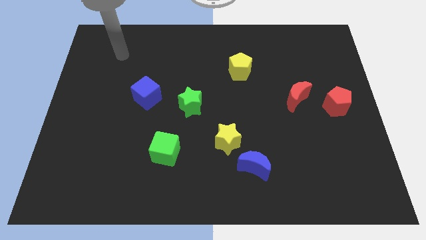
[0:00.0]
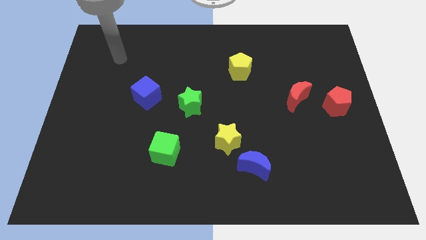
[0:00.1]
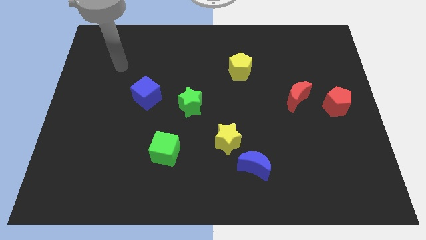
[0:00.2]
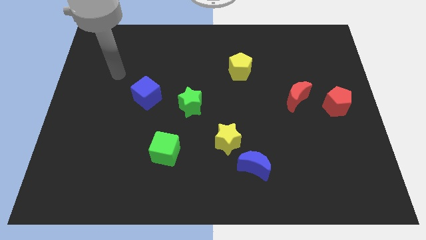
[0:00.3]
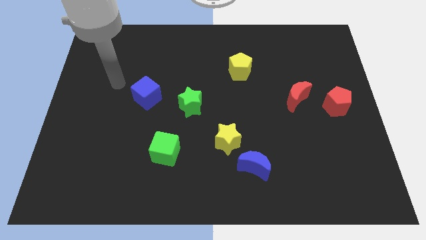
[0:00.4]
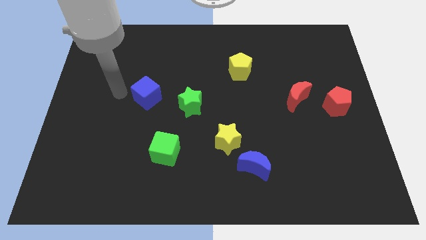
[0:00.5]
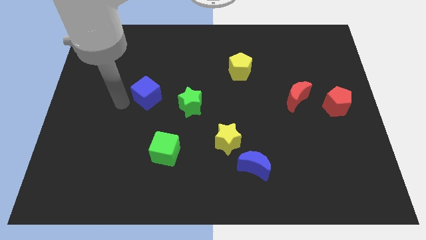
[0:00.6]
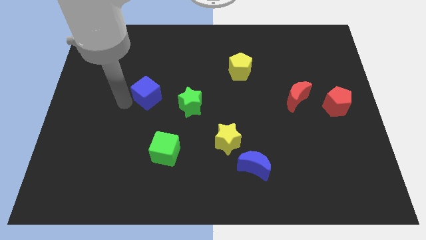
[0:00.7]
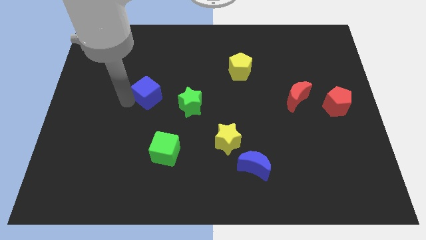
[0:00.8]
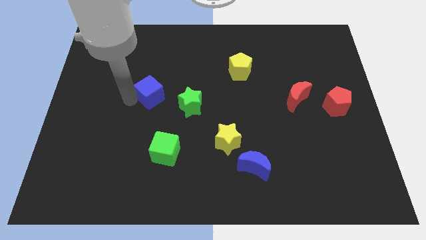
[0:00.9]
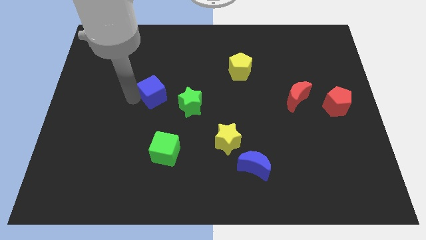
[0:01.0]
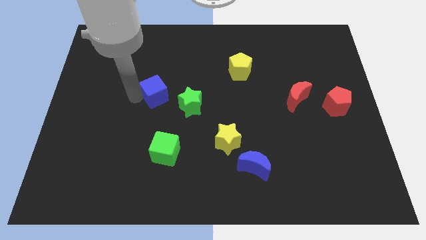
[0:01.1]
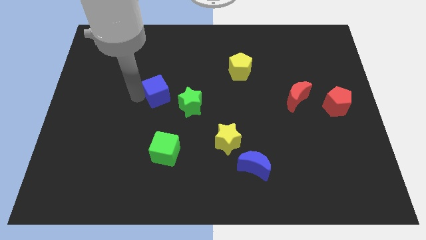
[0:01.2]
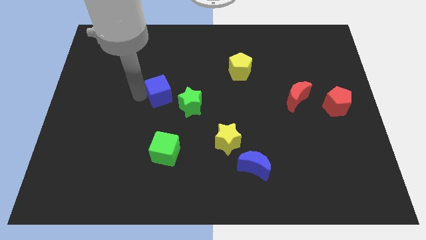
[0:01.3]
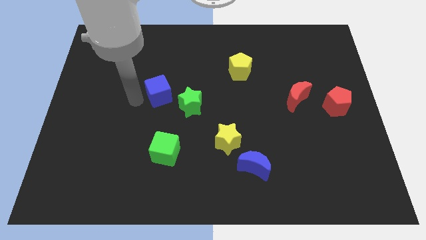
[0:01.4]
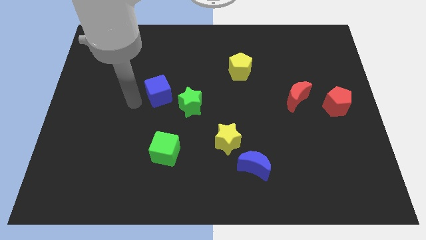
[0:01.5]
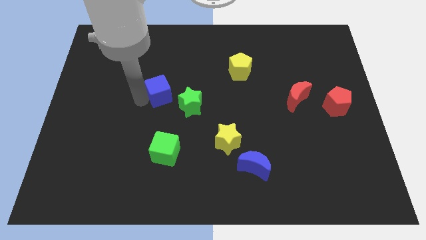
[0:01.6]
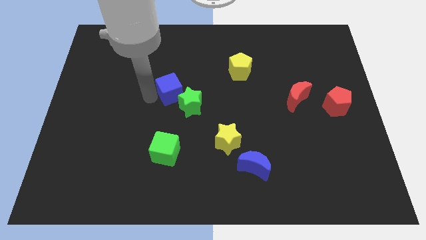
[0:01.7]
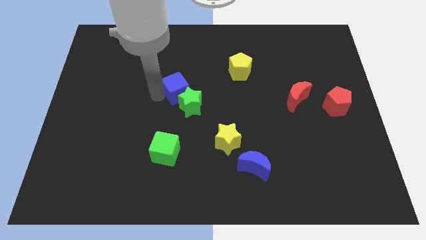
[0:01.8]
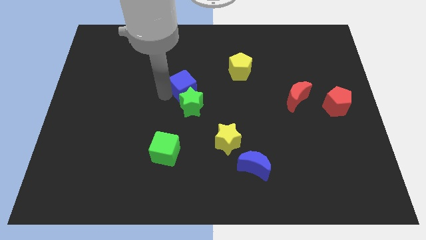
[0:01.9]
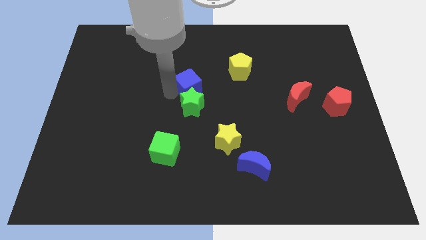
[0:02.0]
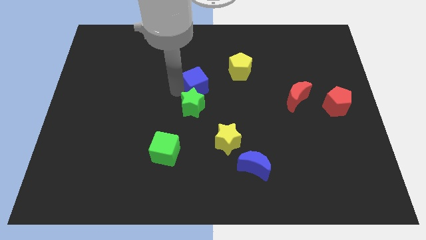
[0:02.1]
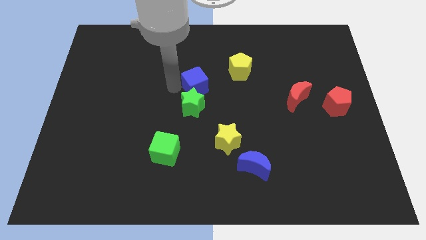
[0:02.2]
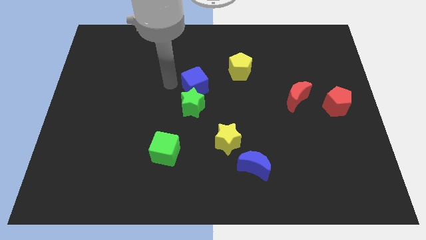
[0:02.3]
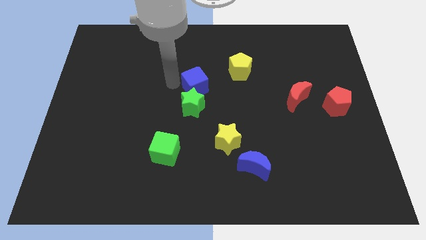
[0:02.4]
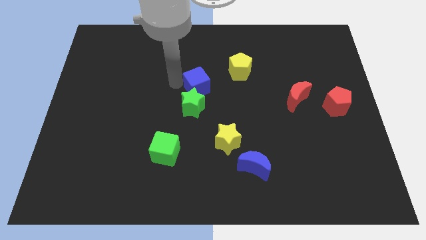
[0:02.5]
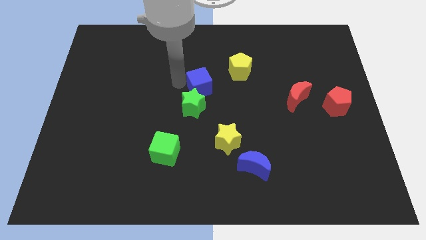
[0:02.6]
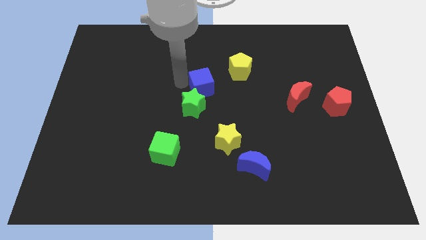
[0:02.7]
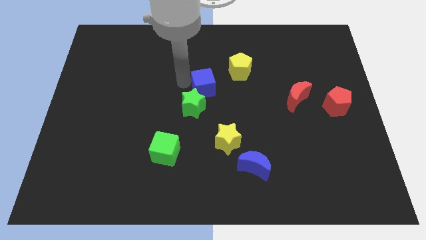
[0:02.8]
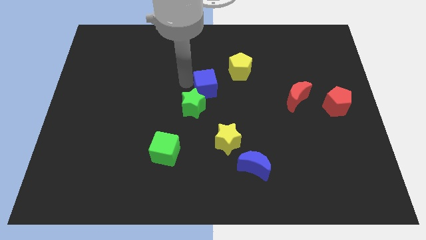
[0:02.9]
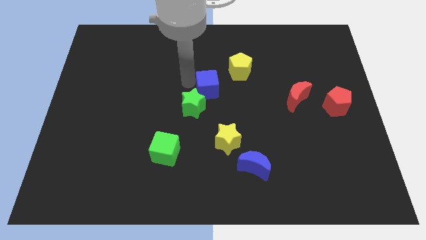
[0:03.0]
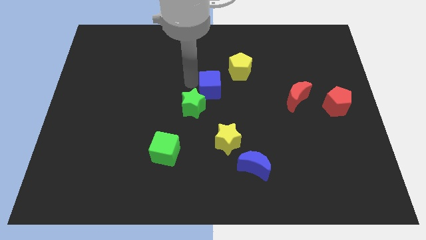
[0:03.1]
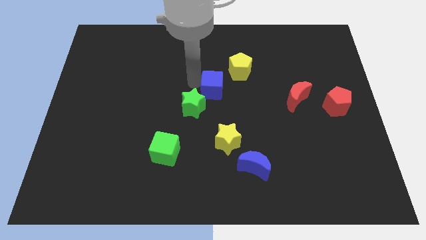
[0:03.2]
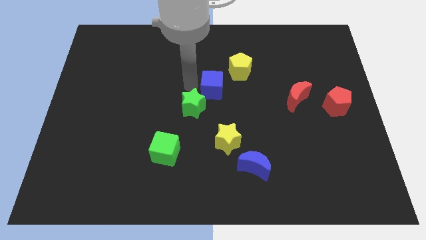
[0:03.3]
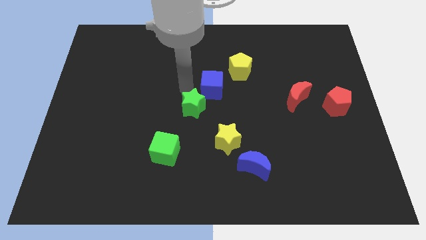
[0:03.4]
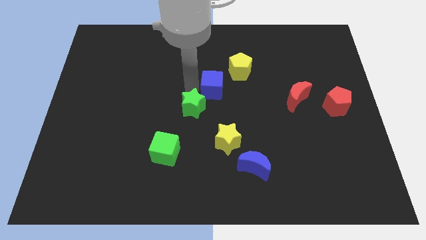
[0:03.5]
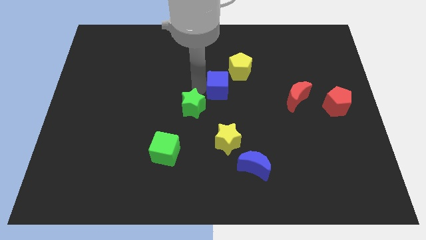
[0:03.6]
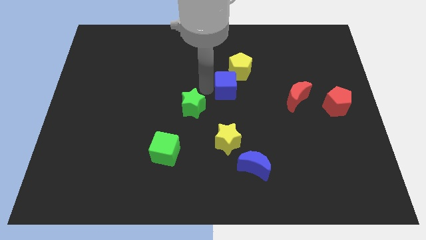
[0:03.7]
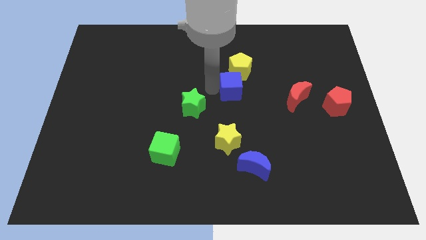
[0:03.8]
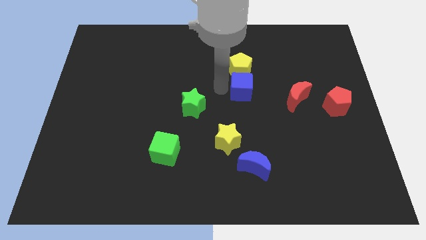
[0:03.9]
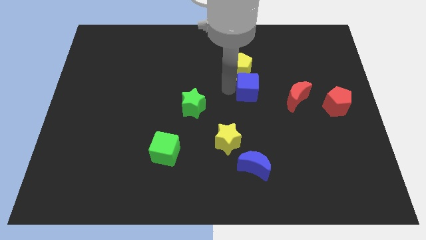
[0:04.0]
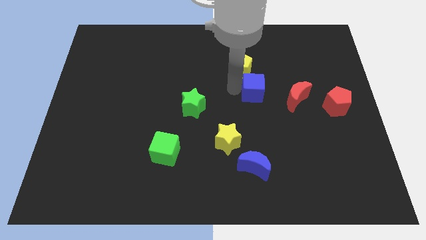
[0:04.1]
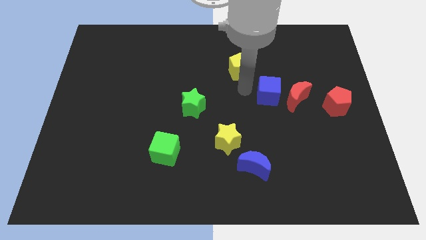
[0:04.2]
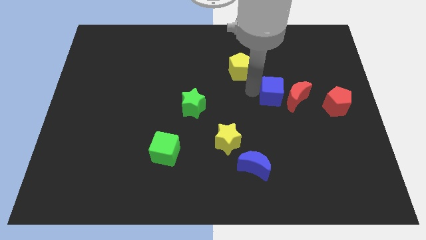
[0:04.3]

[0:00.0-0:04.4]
slide the blue cube next to the red moon

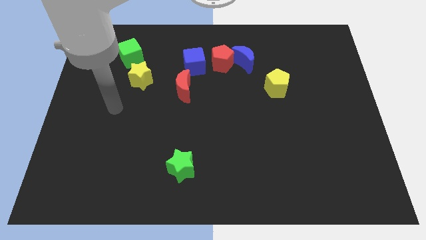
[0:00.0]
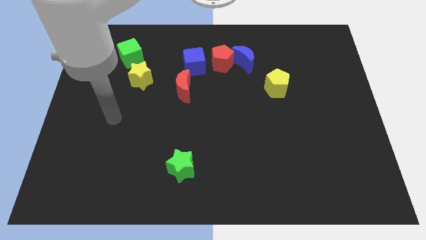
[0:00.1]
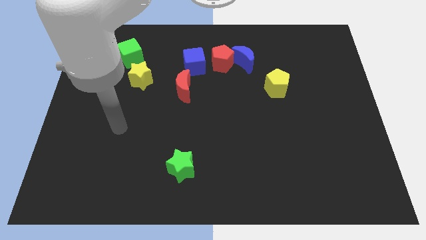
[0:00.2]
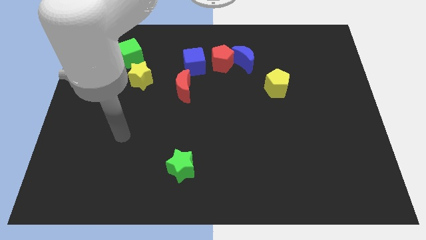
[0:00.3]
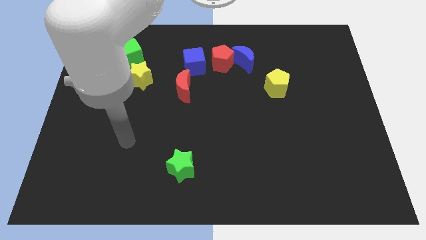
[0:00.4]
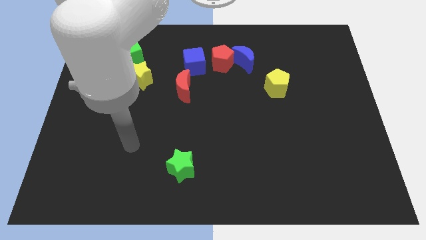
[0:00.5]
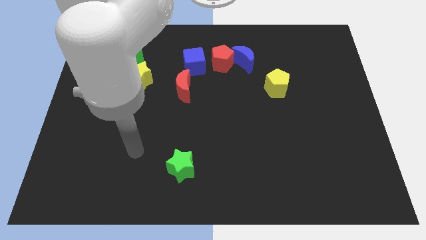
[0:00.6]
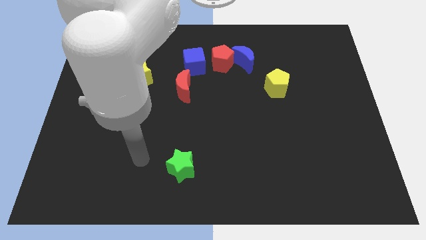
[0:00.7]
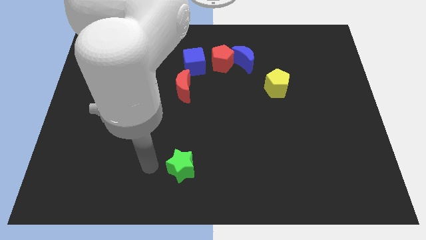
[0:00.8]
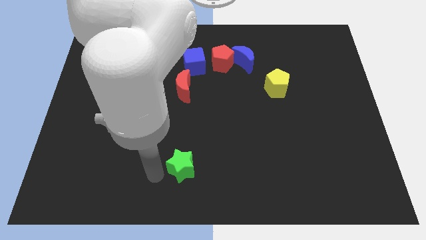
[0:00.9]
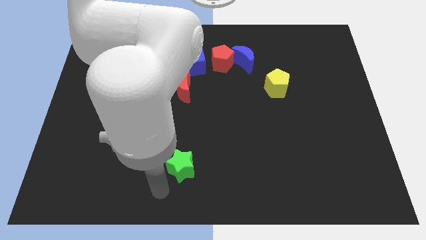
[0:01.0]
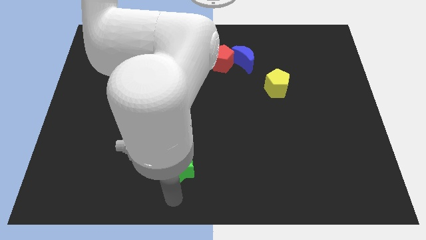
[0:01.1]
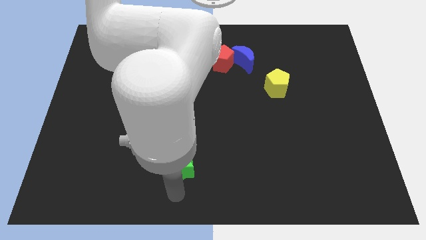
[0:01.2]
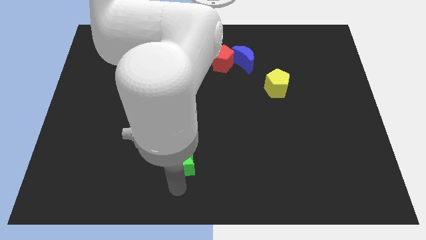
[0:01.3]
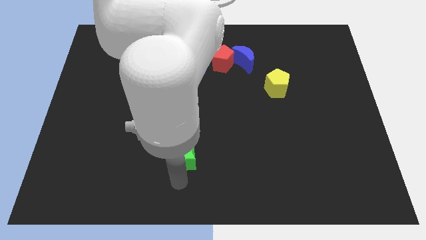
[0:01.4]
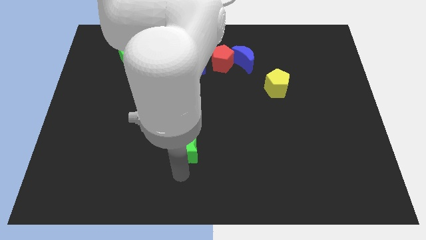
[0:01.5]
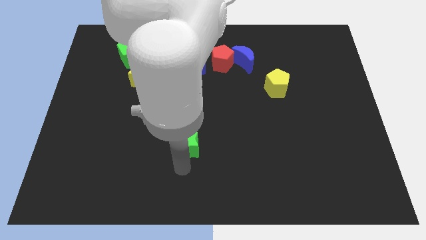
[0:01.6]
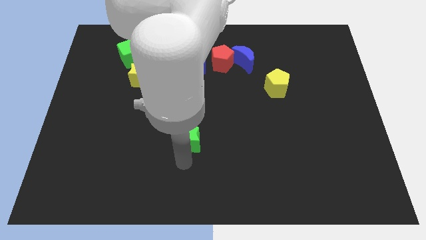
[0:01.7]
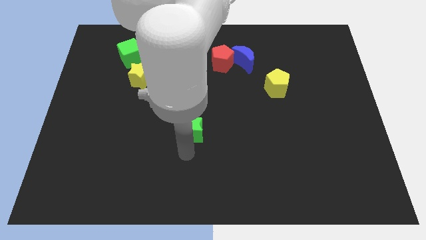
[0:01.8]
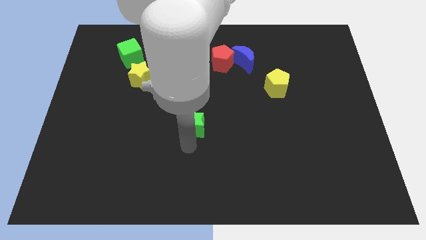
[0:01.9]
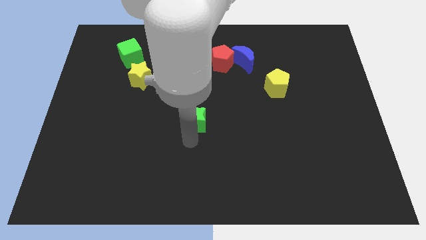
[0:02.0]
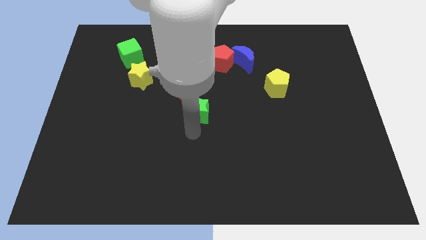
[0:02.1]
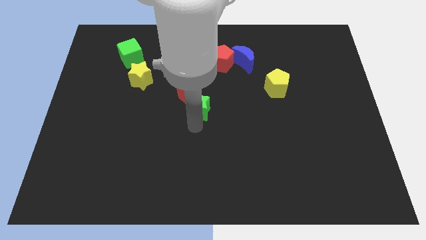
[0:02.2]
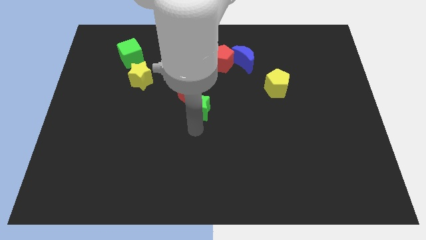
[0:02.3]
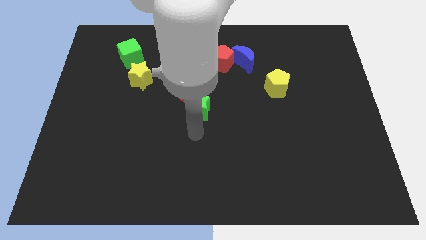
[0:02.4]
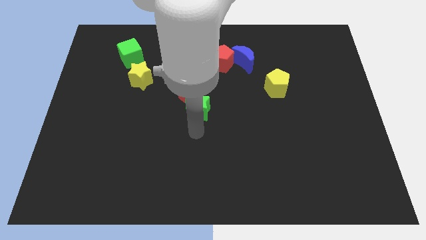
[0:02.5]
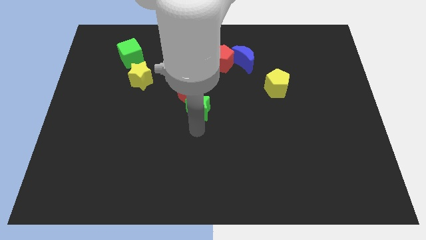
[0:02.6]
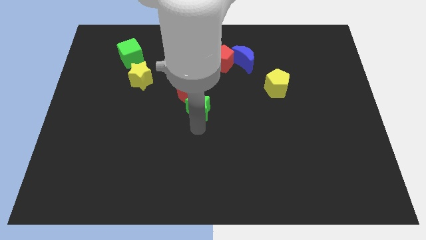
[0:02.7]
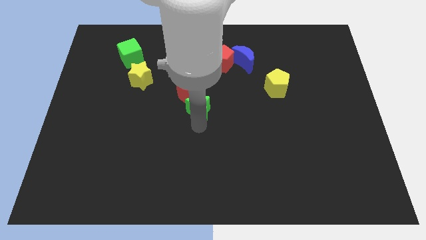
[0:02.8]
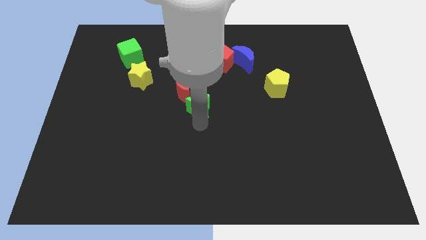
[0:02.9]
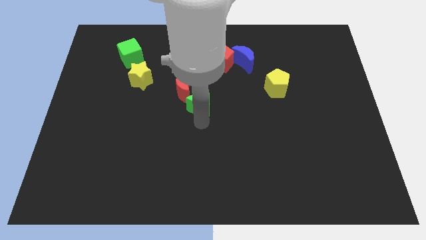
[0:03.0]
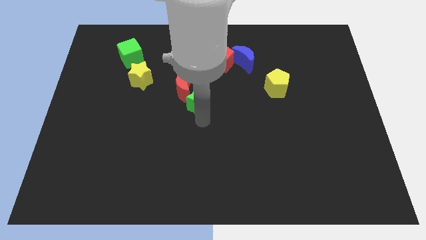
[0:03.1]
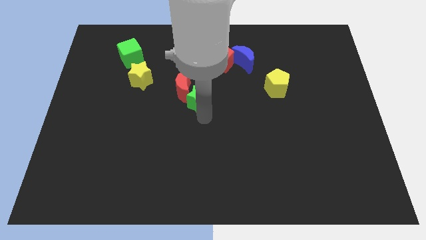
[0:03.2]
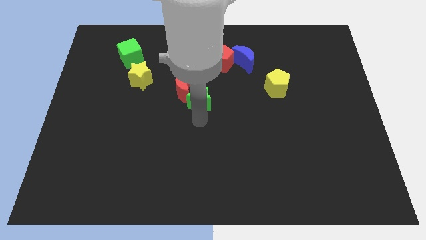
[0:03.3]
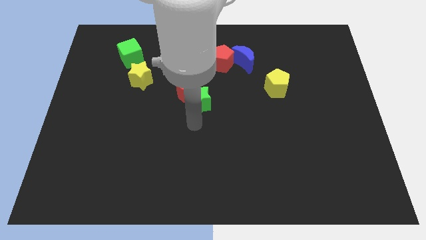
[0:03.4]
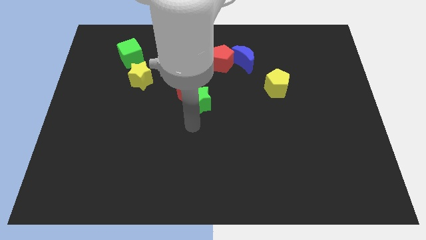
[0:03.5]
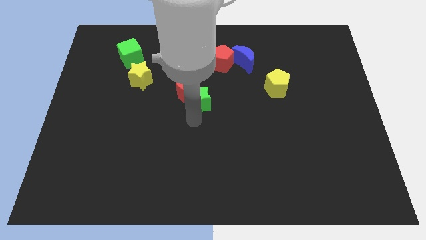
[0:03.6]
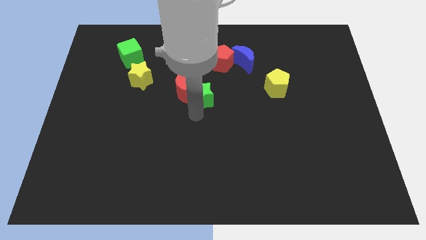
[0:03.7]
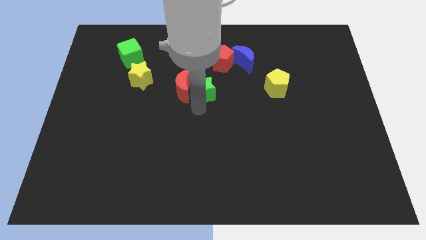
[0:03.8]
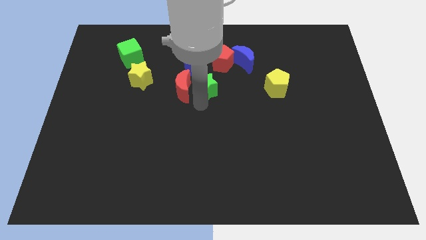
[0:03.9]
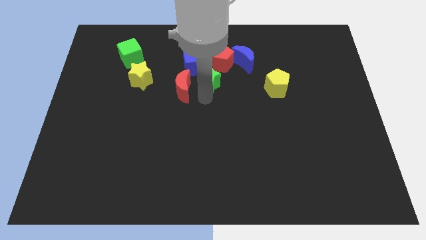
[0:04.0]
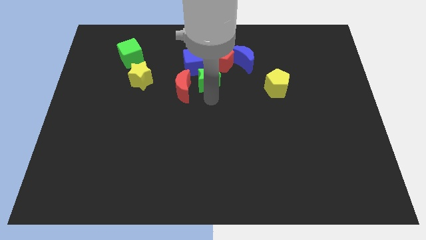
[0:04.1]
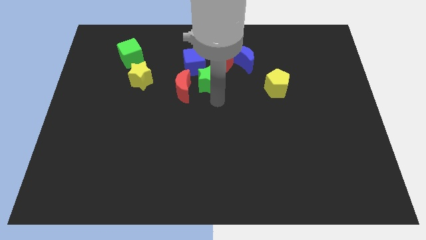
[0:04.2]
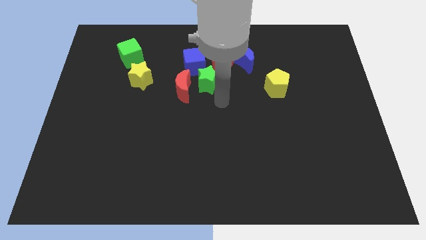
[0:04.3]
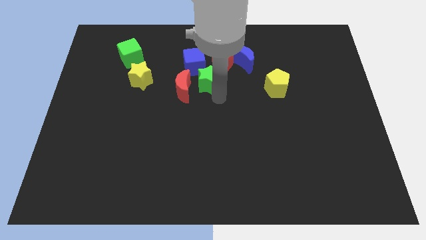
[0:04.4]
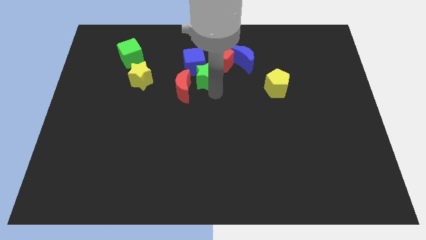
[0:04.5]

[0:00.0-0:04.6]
push the green star to the blue cube
